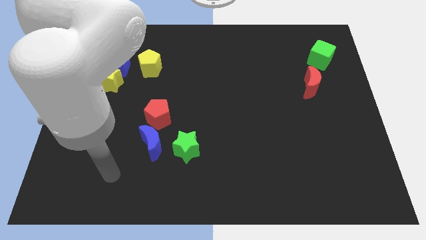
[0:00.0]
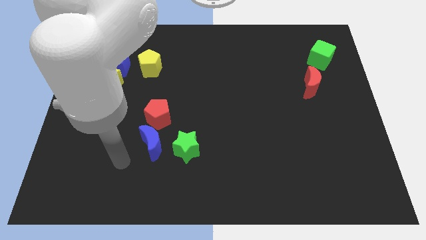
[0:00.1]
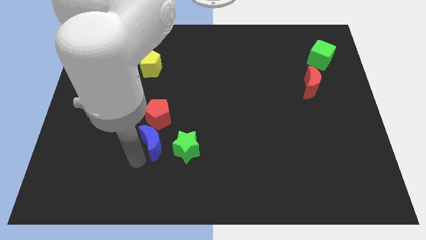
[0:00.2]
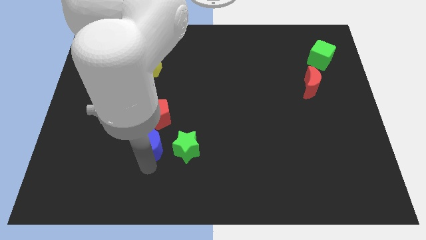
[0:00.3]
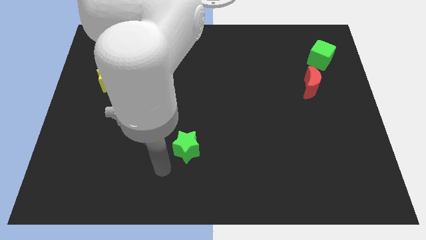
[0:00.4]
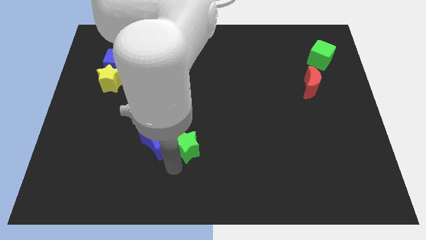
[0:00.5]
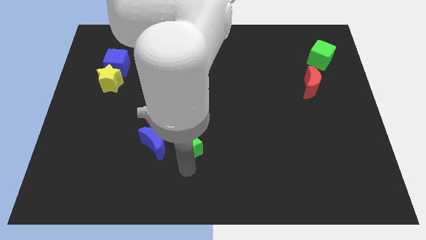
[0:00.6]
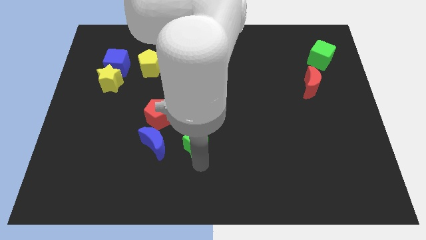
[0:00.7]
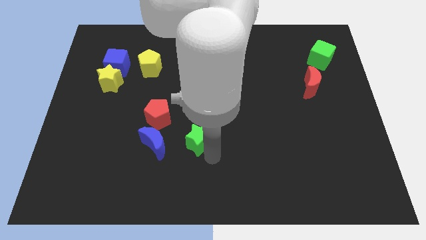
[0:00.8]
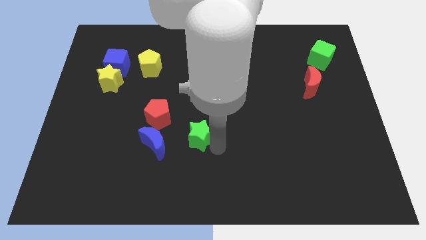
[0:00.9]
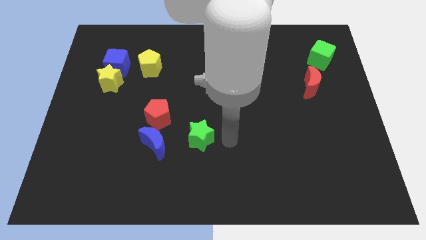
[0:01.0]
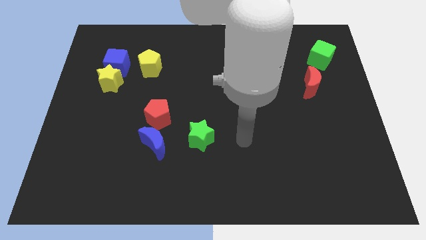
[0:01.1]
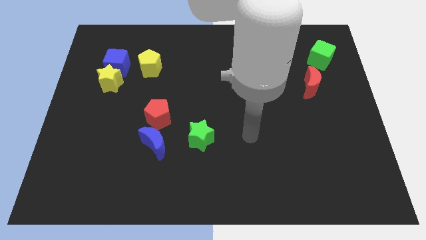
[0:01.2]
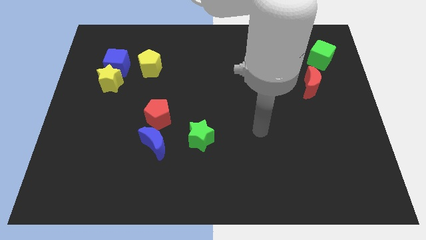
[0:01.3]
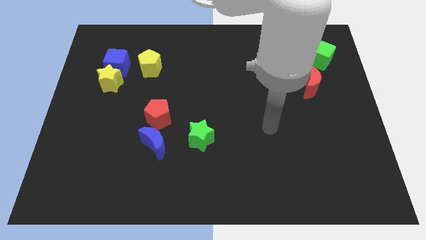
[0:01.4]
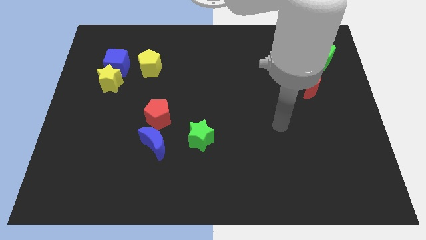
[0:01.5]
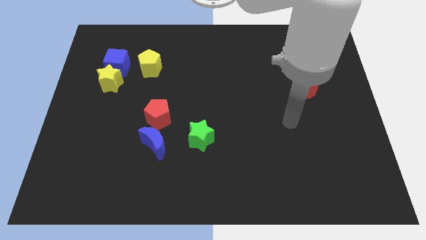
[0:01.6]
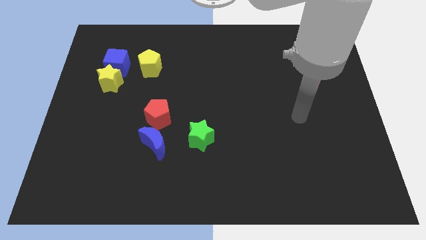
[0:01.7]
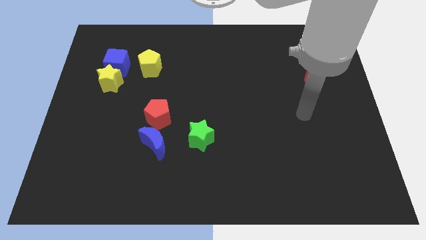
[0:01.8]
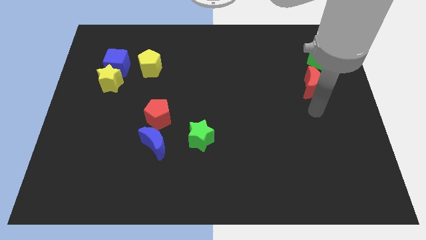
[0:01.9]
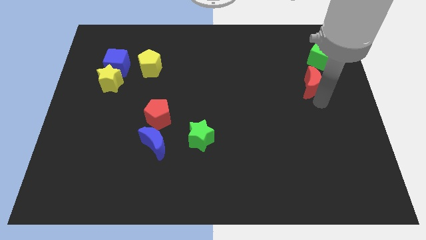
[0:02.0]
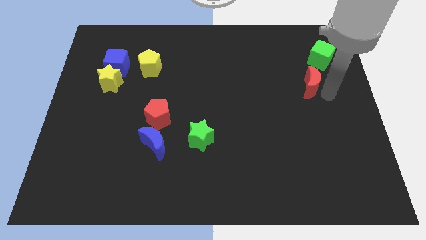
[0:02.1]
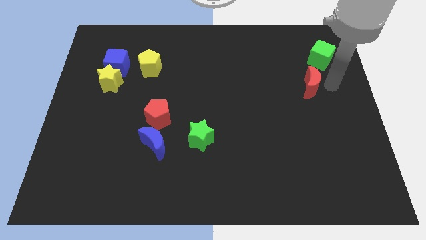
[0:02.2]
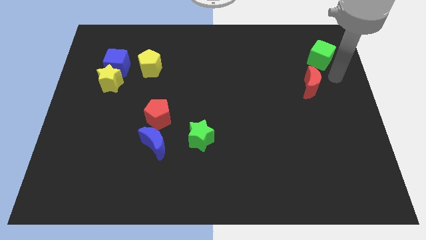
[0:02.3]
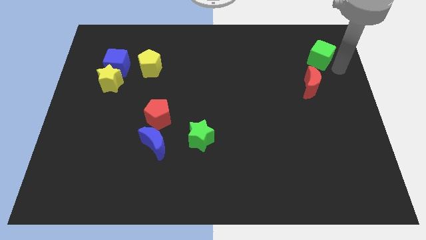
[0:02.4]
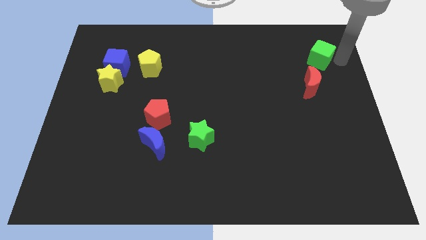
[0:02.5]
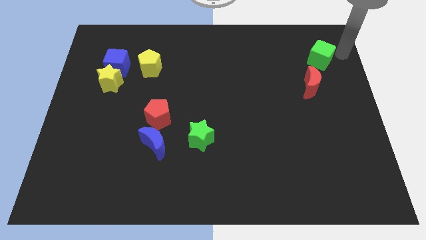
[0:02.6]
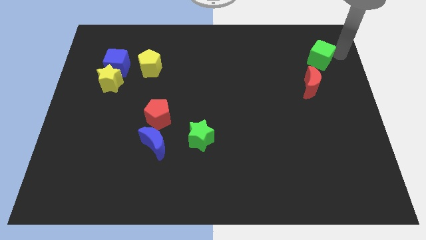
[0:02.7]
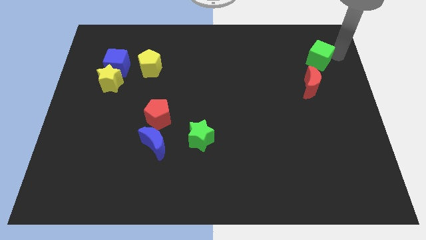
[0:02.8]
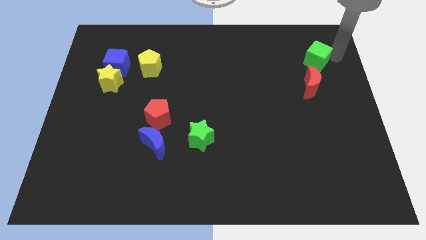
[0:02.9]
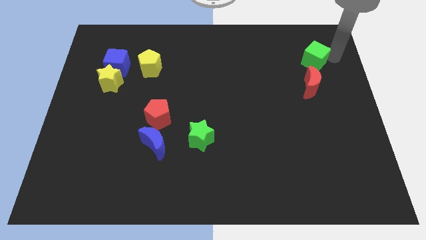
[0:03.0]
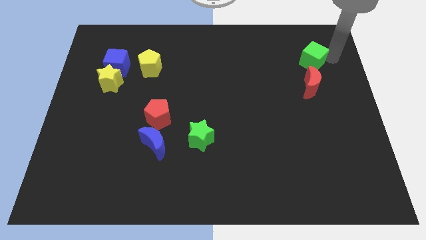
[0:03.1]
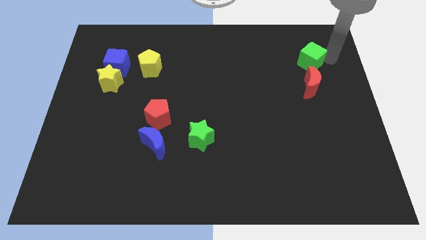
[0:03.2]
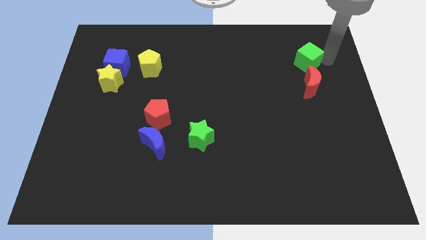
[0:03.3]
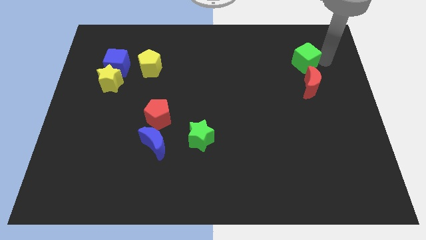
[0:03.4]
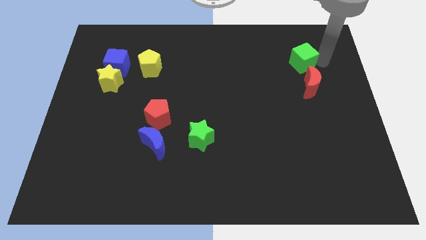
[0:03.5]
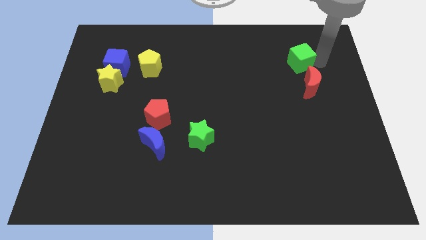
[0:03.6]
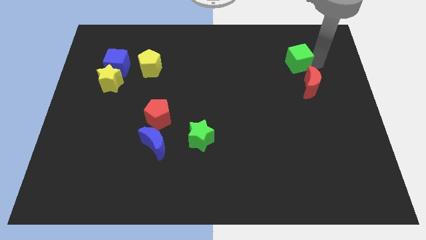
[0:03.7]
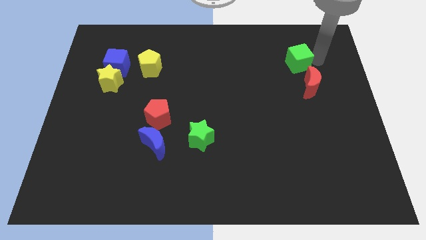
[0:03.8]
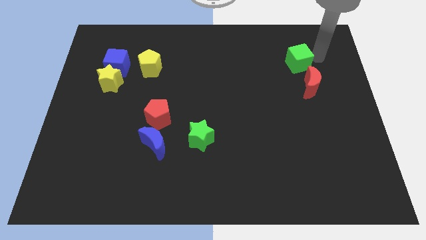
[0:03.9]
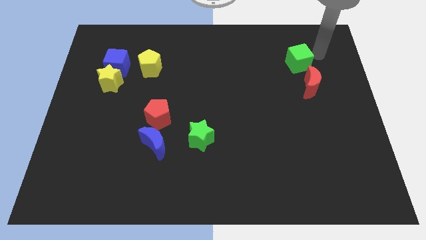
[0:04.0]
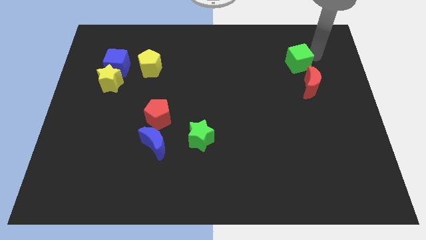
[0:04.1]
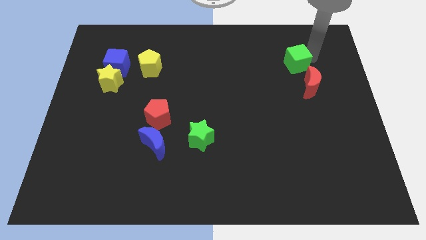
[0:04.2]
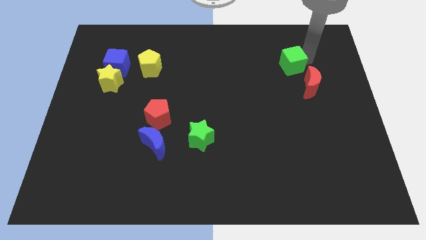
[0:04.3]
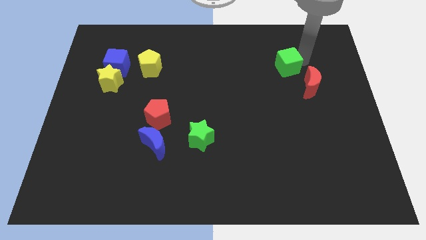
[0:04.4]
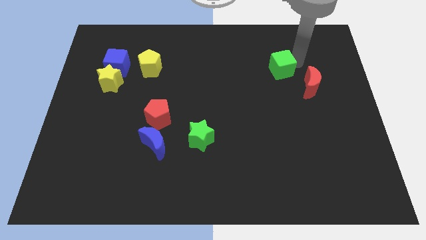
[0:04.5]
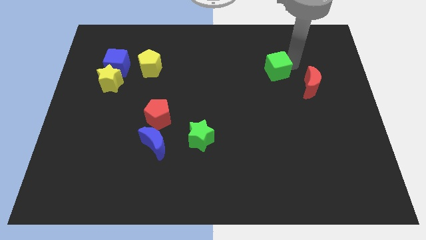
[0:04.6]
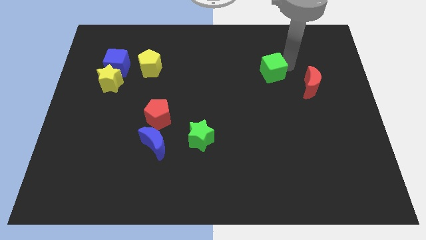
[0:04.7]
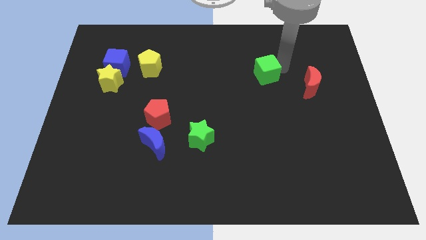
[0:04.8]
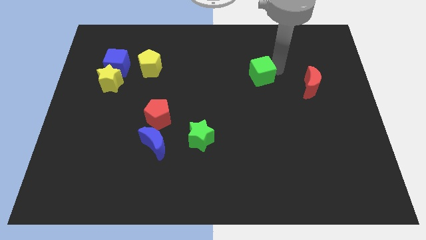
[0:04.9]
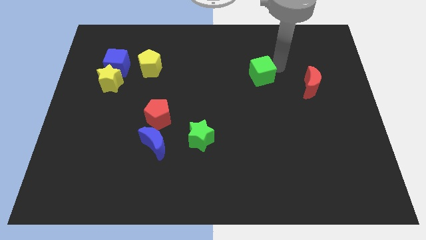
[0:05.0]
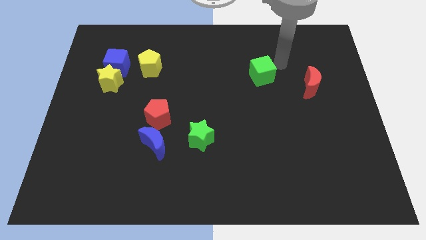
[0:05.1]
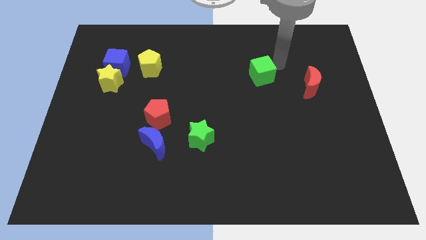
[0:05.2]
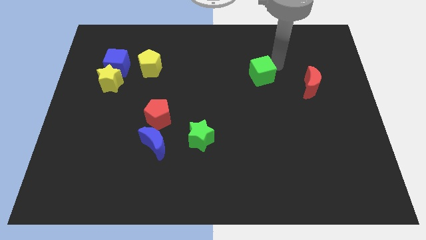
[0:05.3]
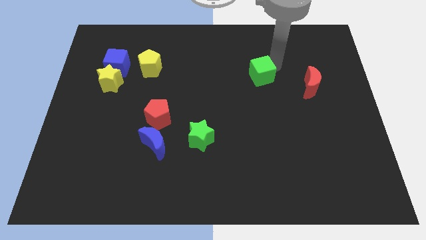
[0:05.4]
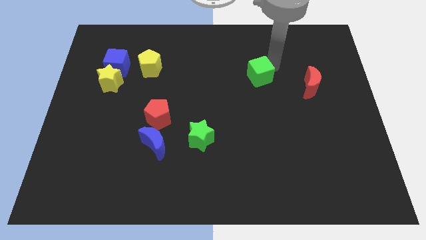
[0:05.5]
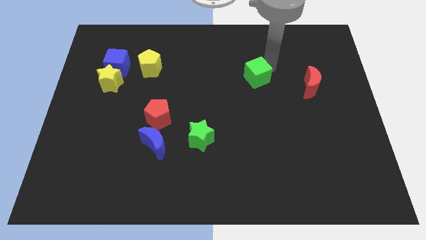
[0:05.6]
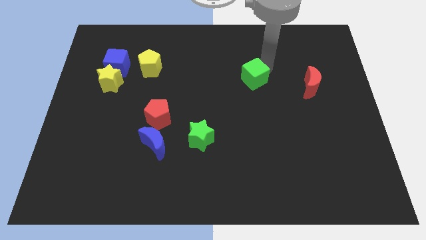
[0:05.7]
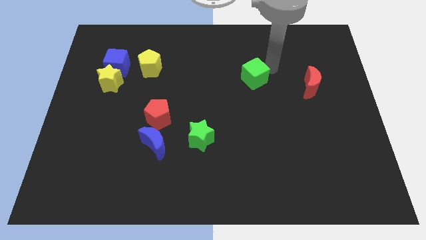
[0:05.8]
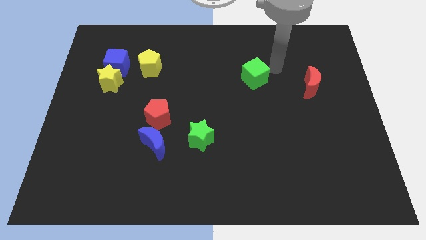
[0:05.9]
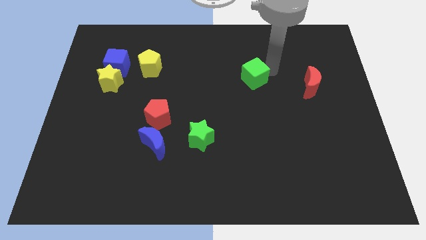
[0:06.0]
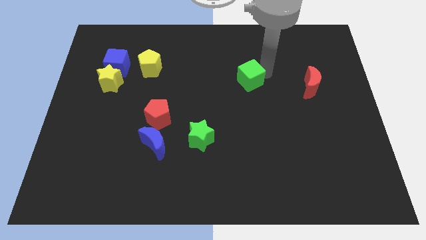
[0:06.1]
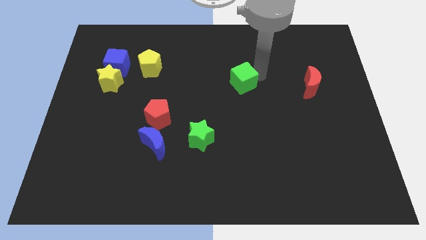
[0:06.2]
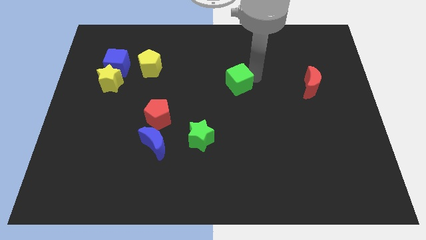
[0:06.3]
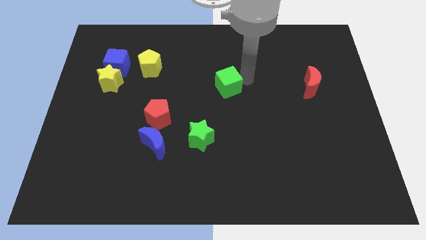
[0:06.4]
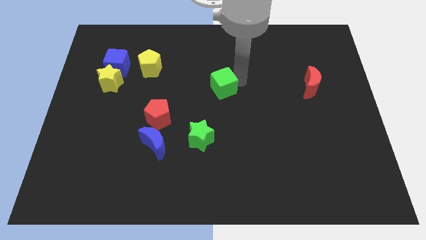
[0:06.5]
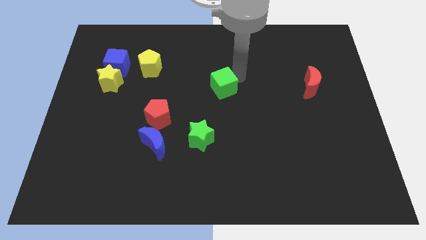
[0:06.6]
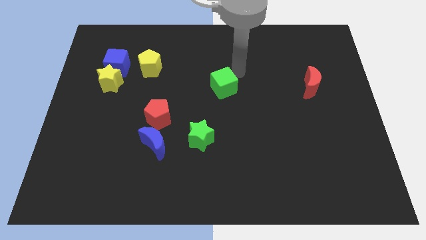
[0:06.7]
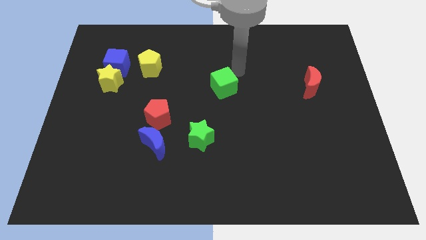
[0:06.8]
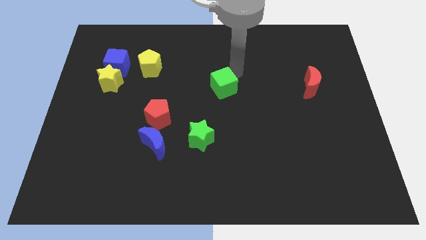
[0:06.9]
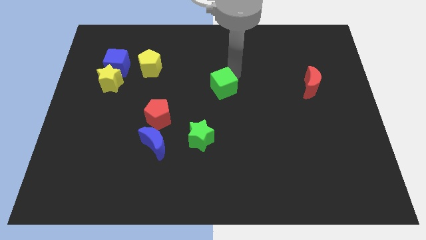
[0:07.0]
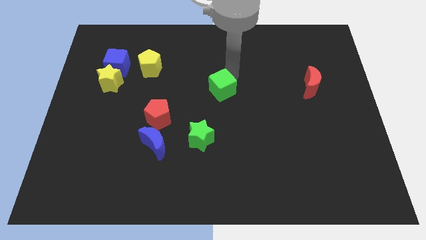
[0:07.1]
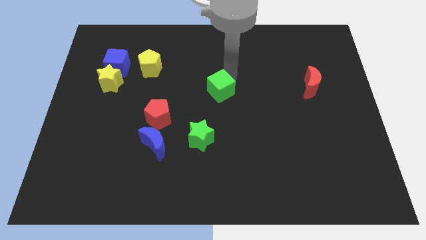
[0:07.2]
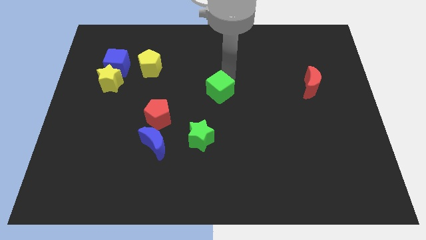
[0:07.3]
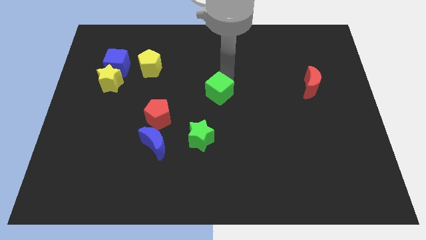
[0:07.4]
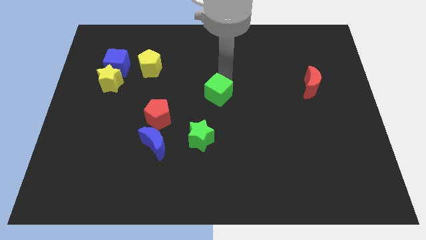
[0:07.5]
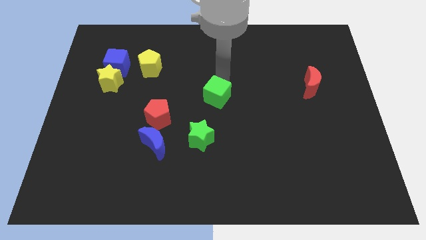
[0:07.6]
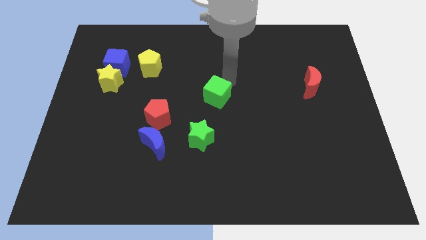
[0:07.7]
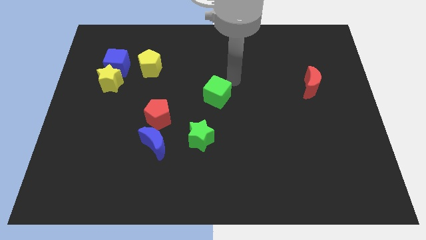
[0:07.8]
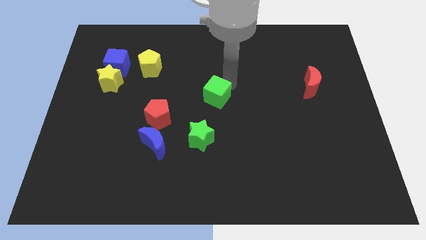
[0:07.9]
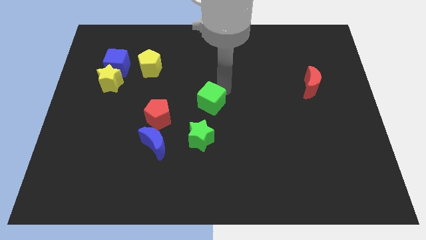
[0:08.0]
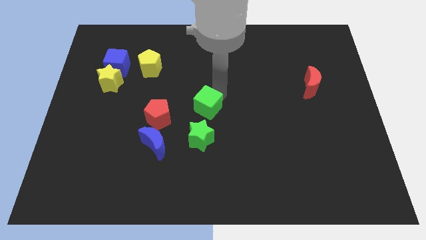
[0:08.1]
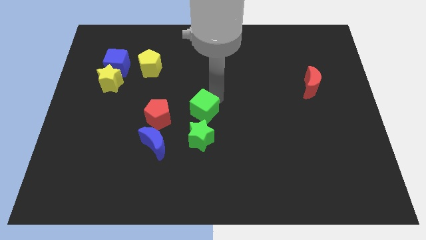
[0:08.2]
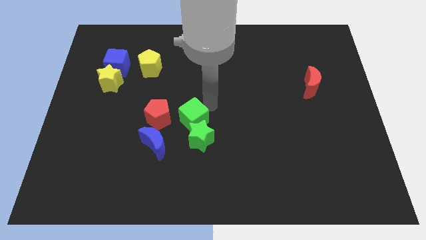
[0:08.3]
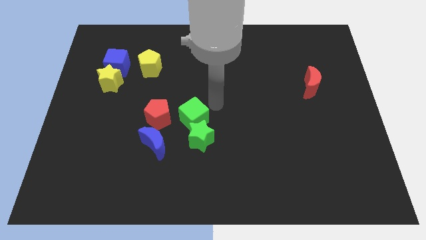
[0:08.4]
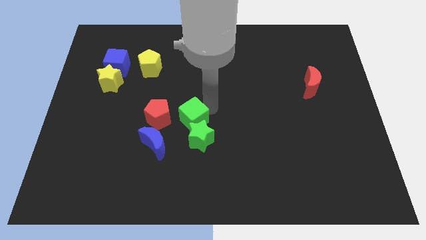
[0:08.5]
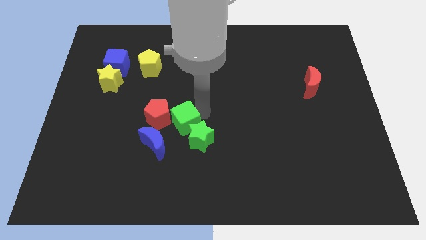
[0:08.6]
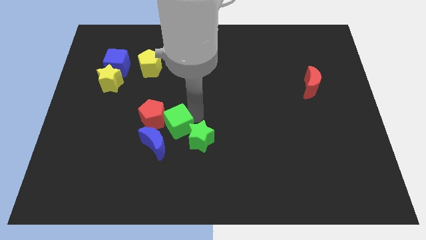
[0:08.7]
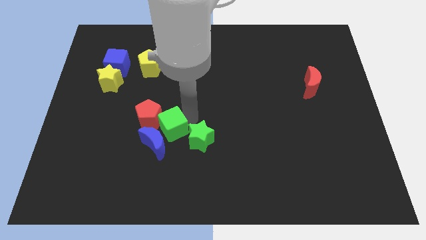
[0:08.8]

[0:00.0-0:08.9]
slide the green cube next to the blue moon
